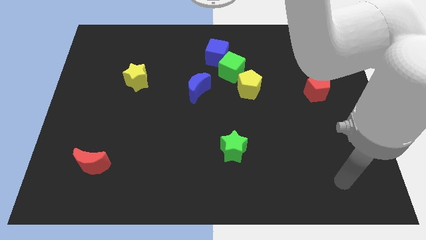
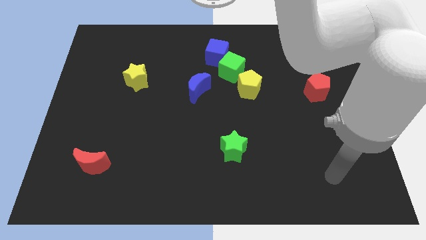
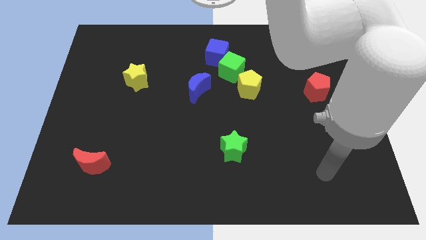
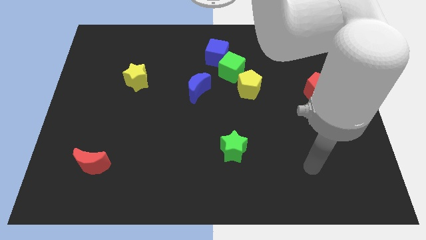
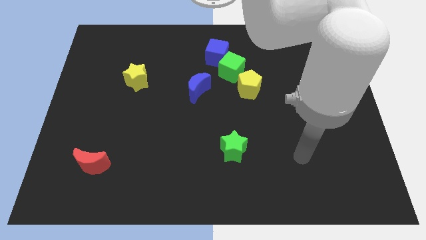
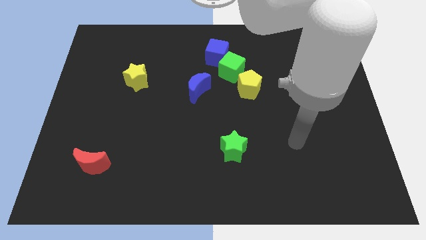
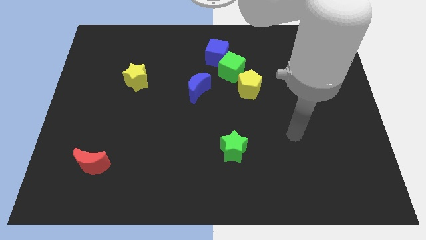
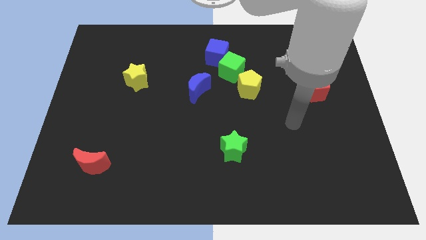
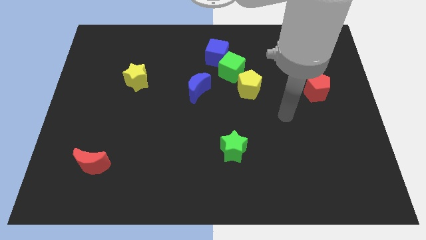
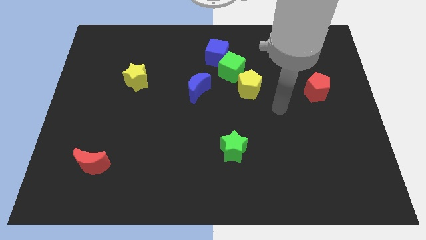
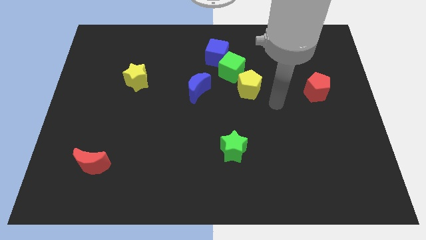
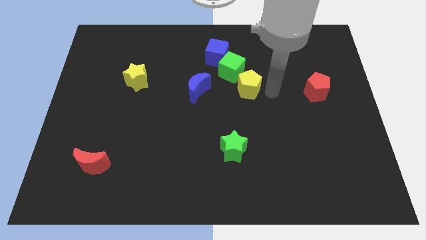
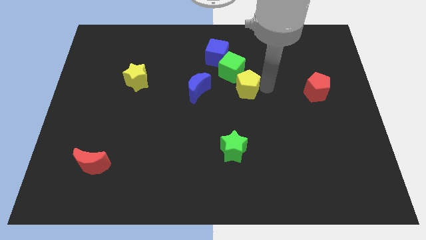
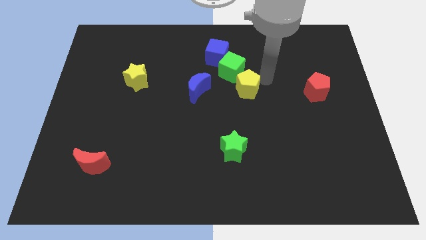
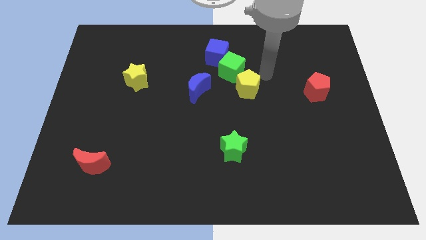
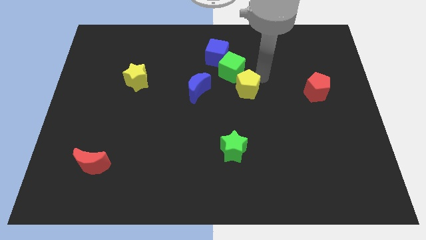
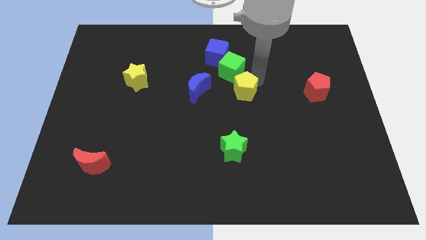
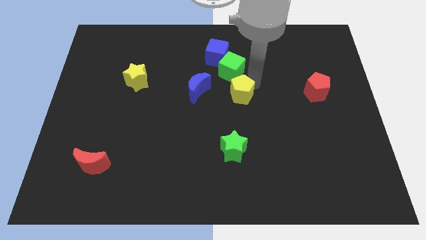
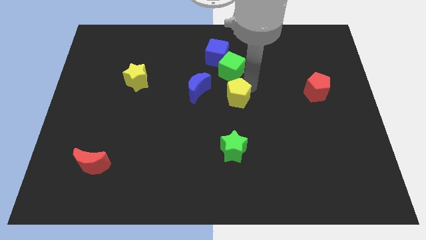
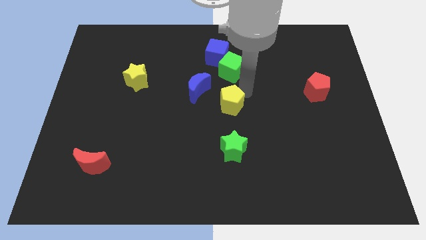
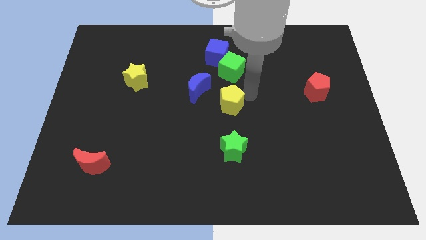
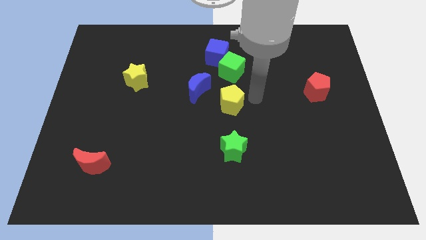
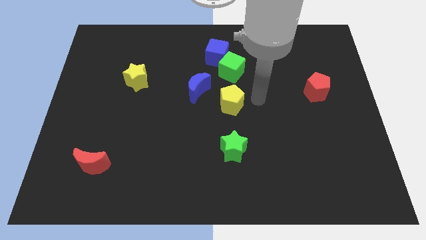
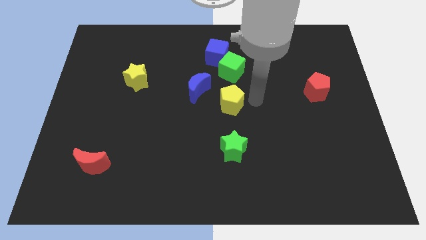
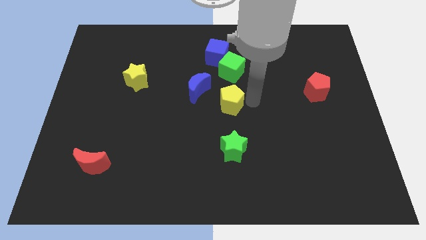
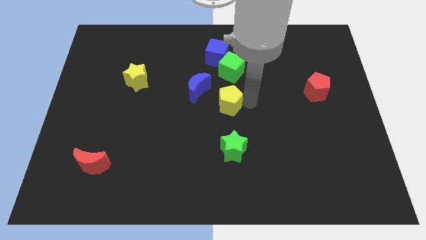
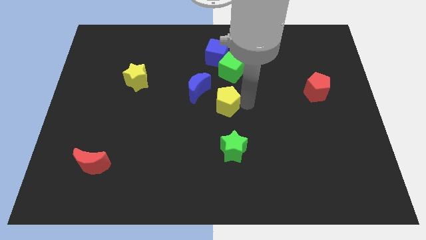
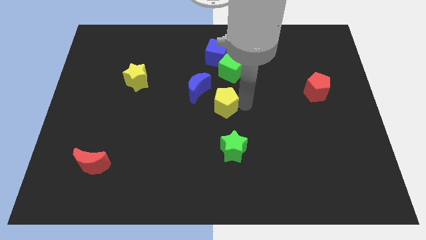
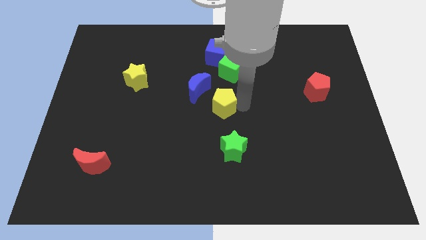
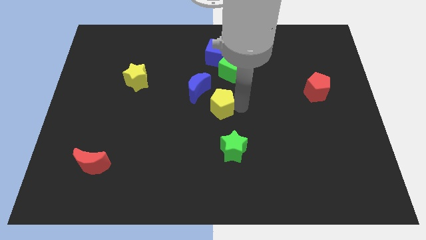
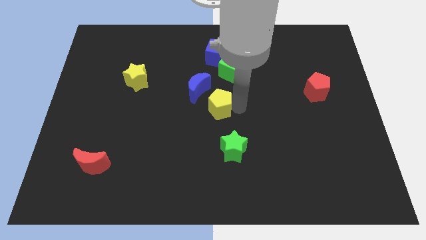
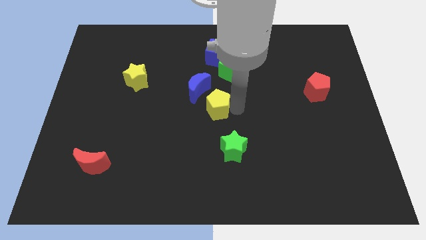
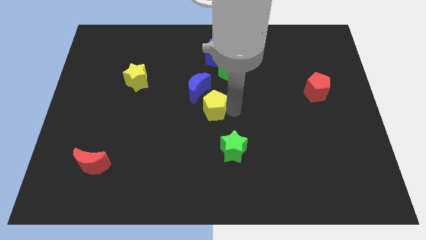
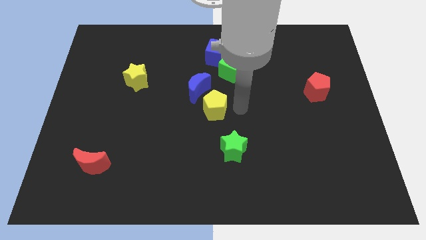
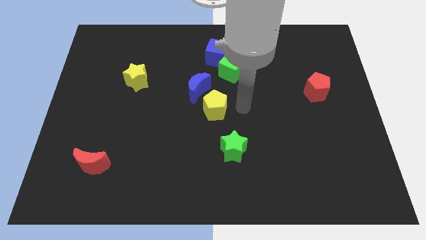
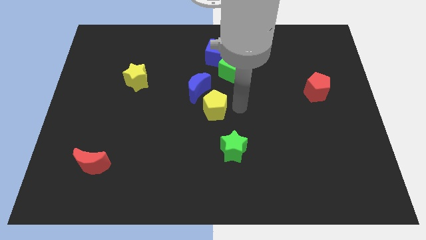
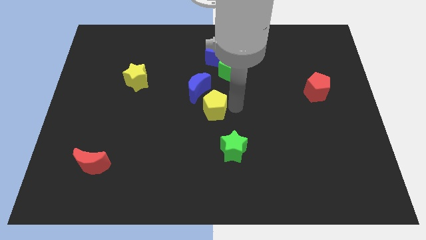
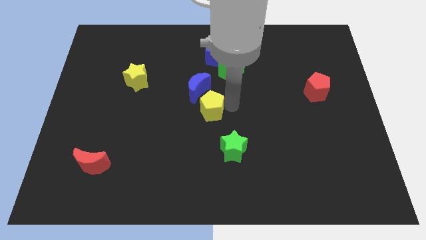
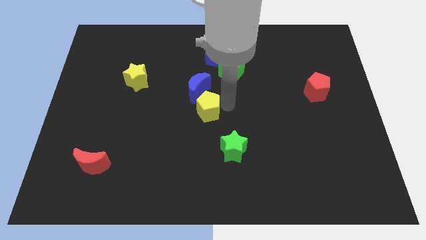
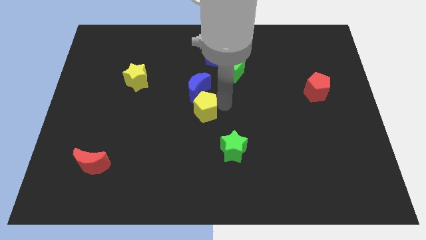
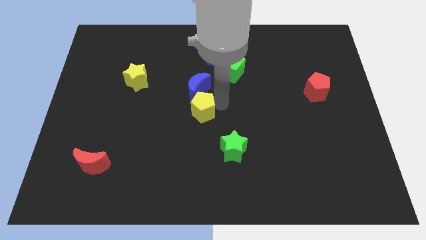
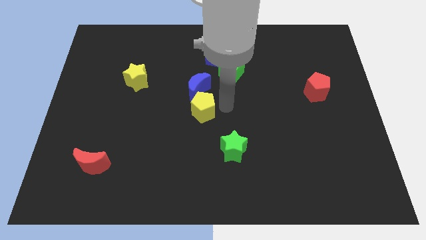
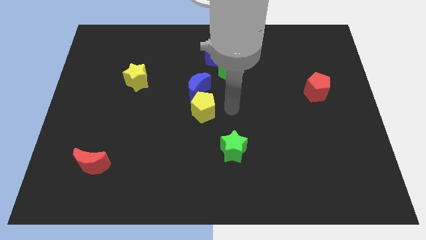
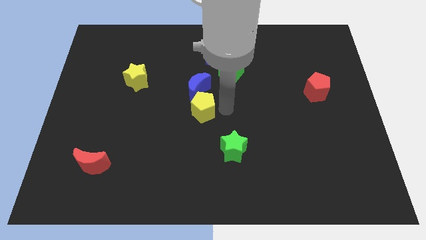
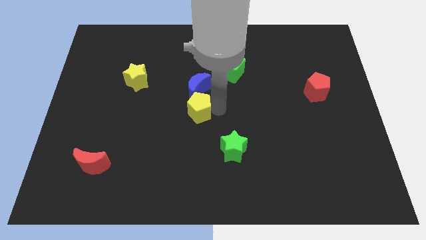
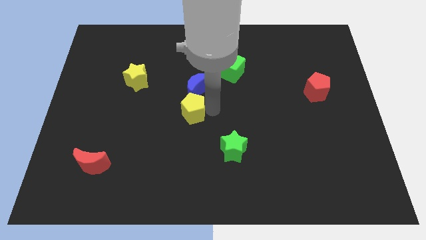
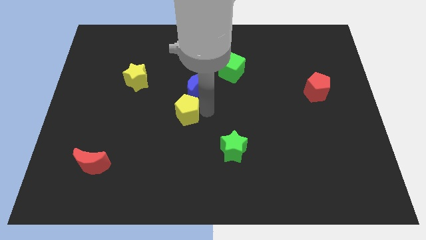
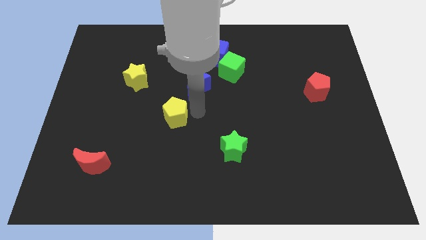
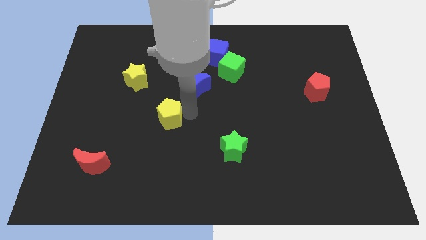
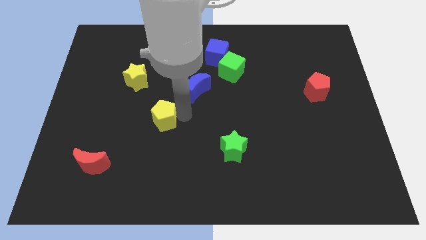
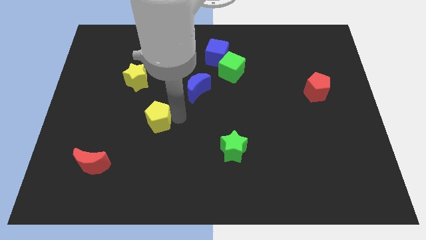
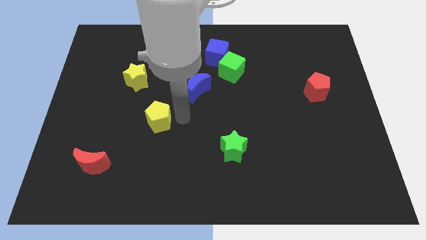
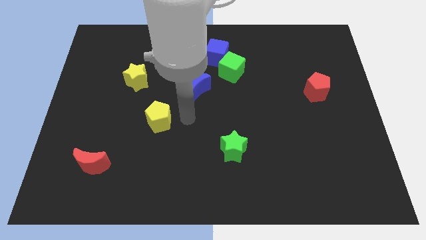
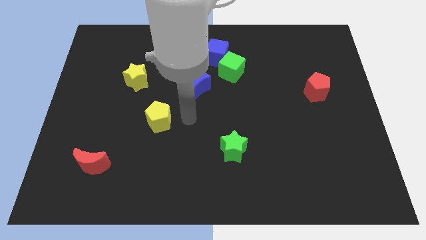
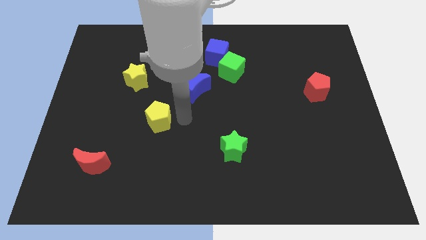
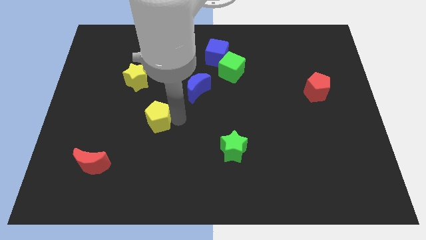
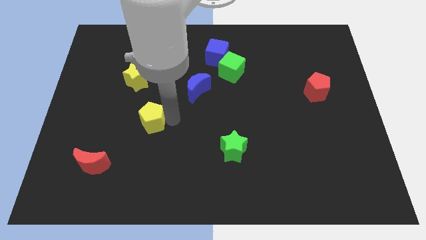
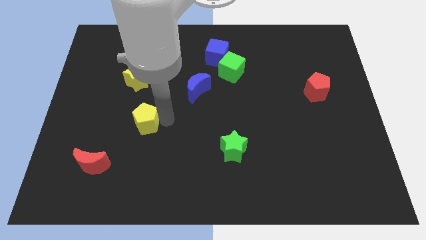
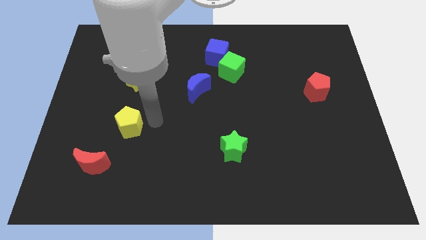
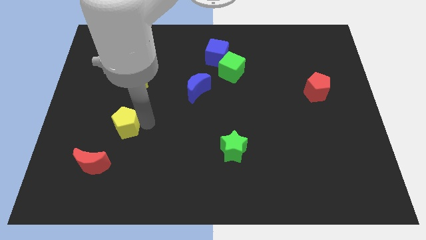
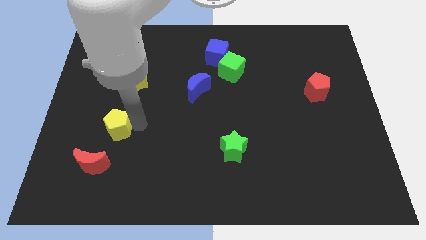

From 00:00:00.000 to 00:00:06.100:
push the yellow pentagon to the top side of the red moon

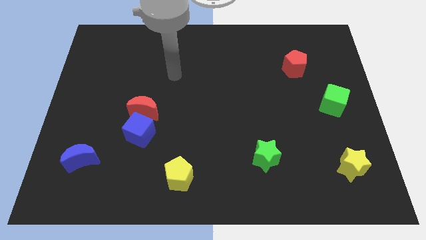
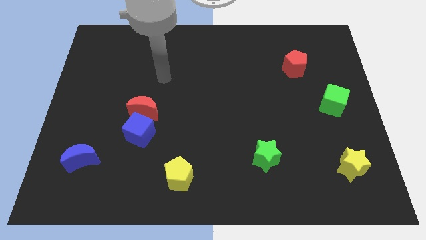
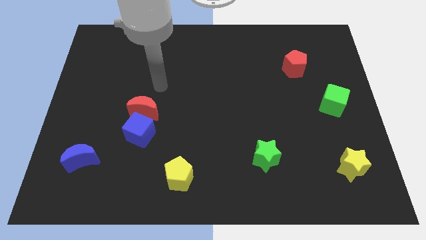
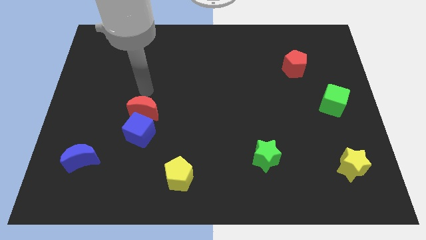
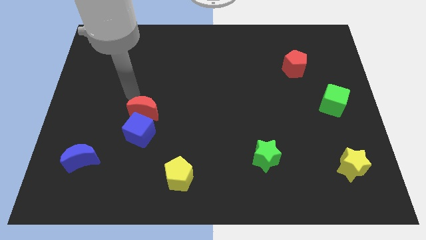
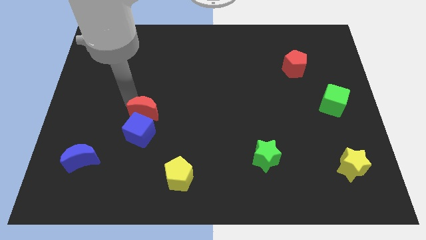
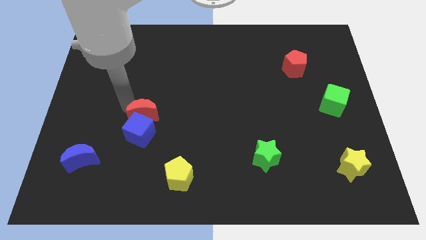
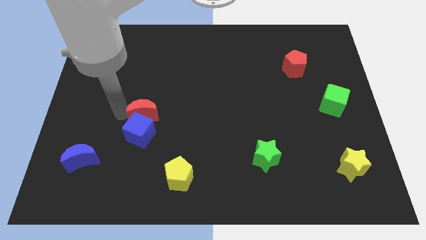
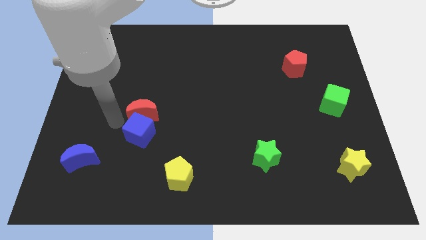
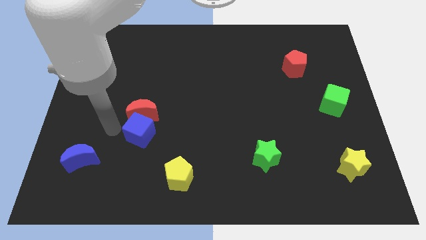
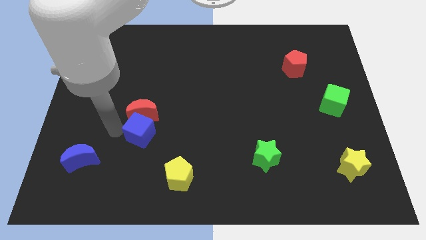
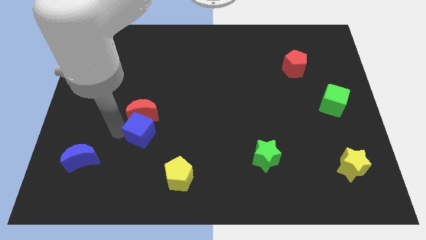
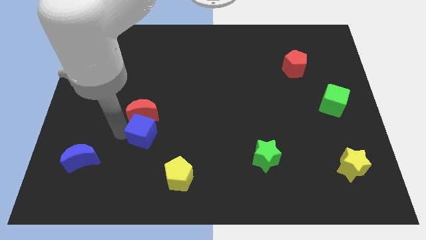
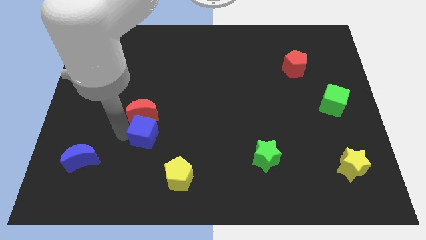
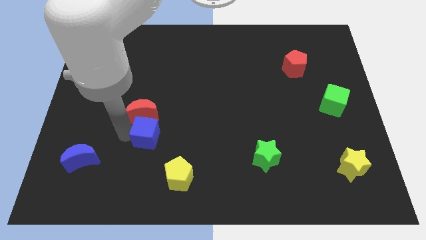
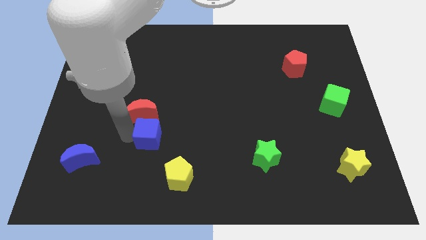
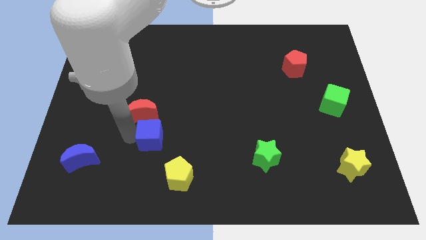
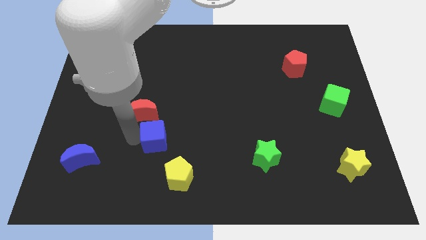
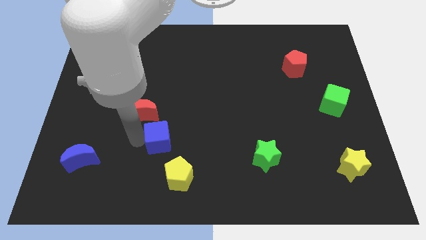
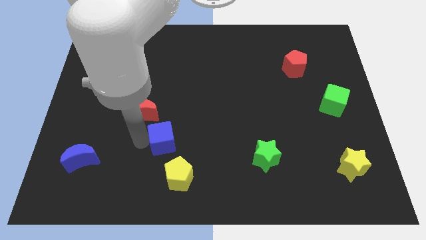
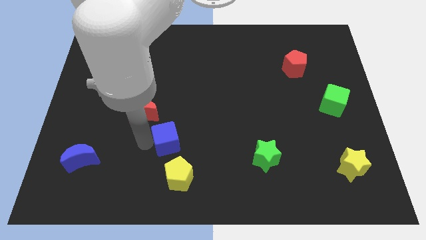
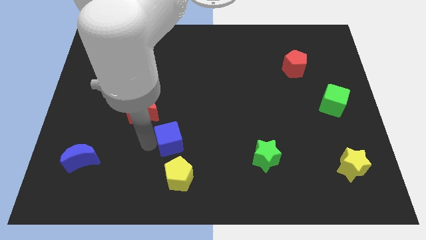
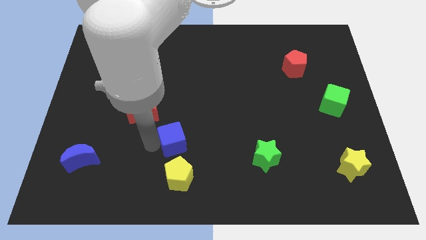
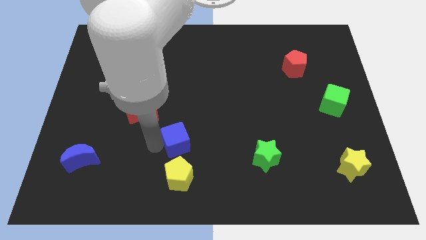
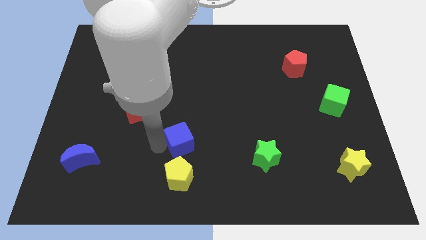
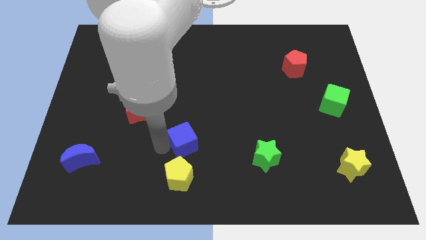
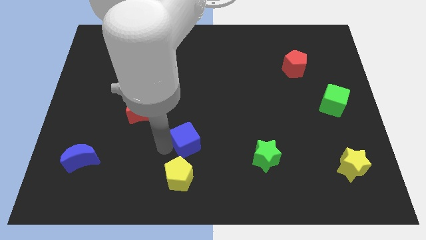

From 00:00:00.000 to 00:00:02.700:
push the blue cube diagonally up and to the right of the yellow pentagon
